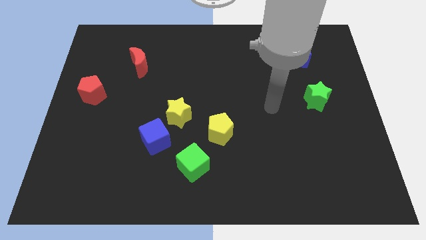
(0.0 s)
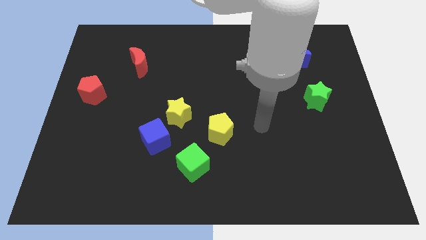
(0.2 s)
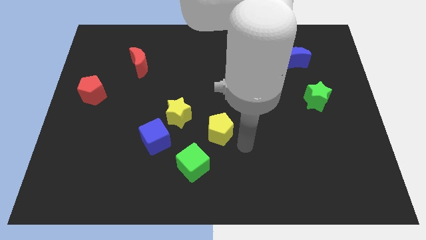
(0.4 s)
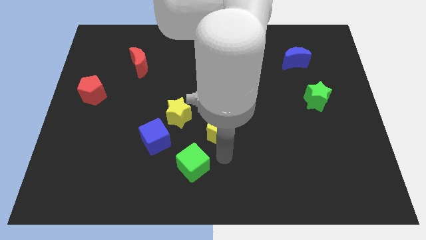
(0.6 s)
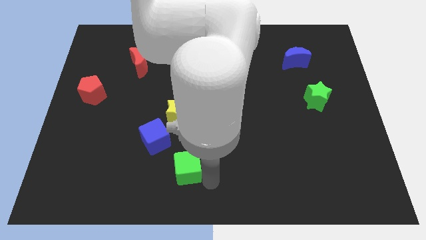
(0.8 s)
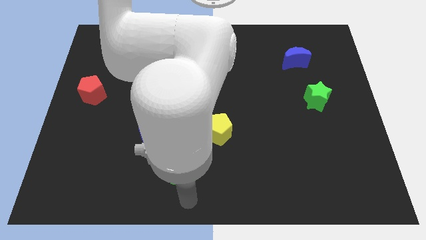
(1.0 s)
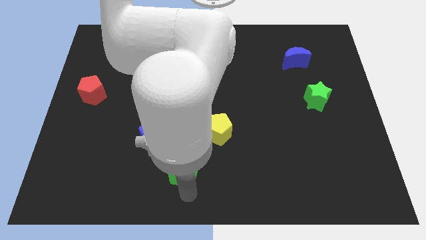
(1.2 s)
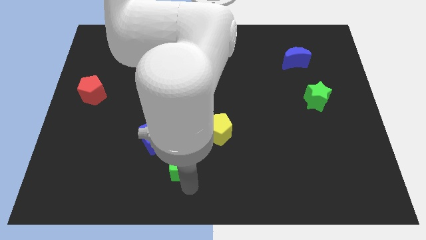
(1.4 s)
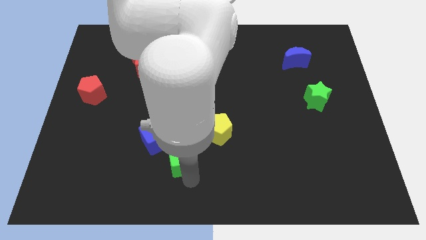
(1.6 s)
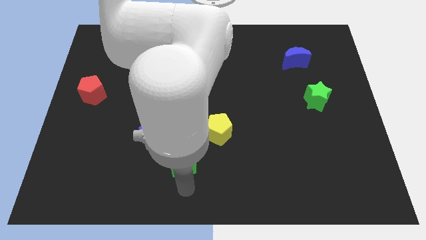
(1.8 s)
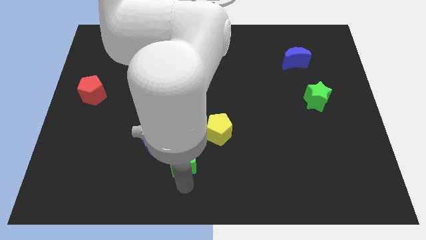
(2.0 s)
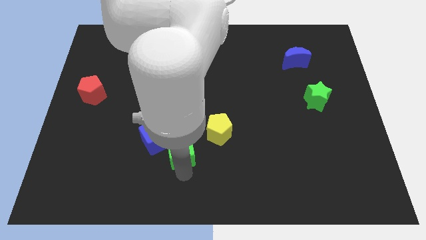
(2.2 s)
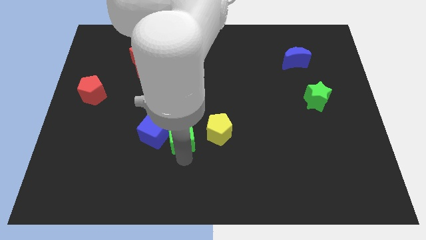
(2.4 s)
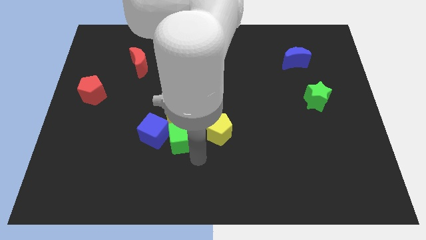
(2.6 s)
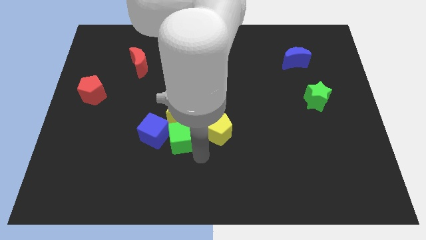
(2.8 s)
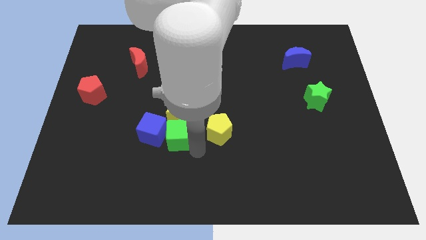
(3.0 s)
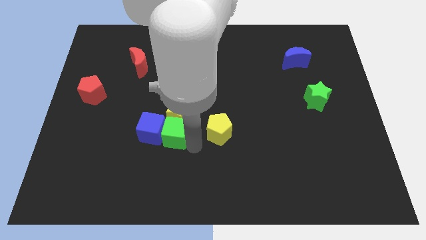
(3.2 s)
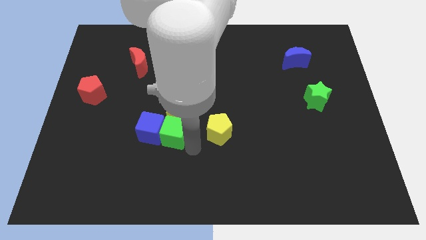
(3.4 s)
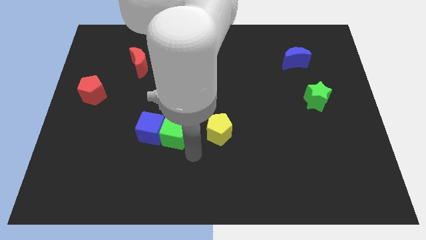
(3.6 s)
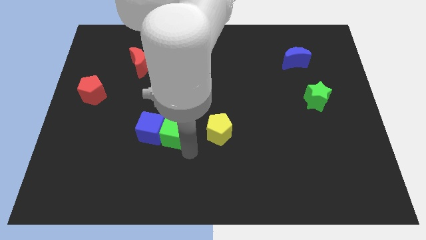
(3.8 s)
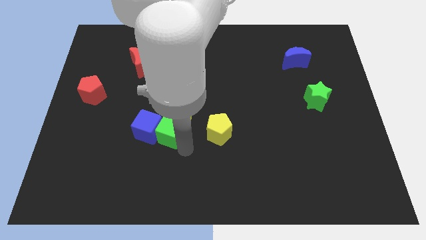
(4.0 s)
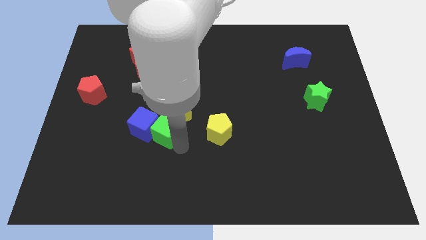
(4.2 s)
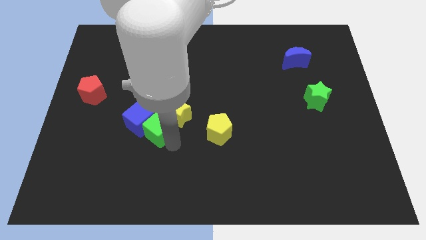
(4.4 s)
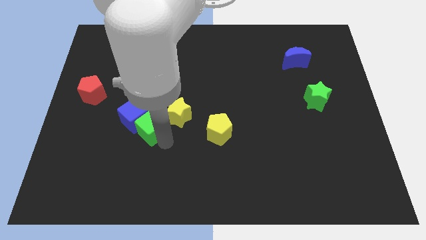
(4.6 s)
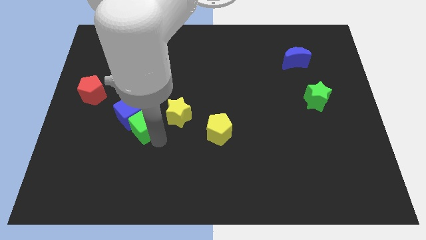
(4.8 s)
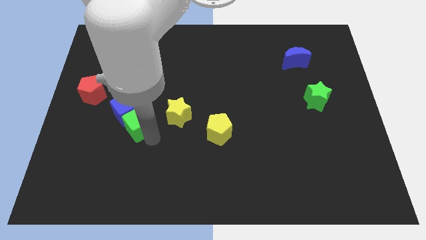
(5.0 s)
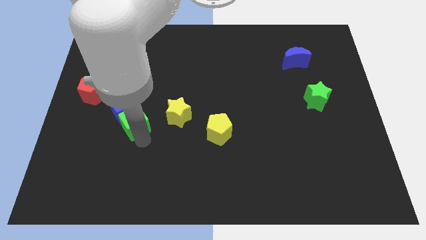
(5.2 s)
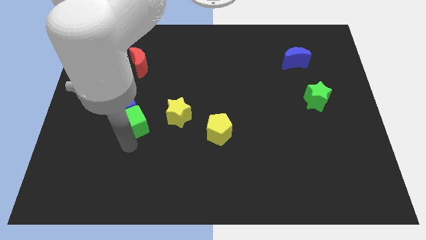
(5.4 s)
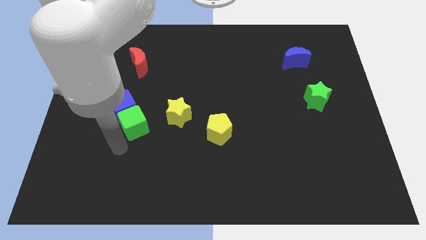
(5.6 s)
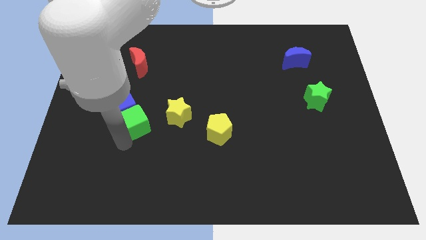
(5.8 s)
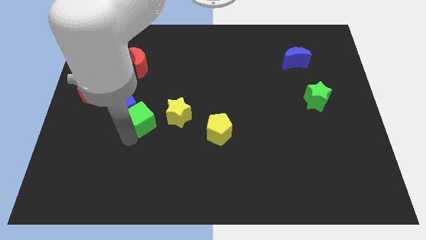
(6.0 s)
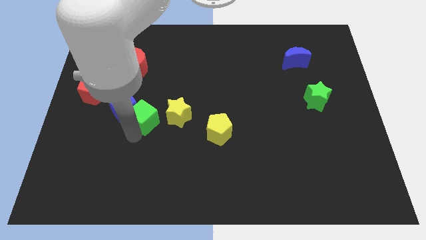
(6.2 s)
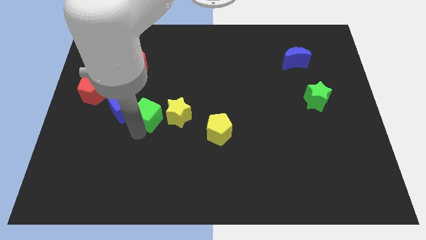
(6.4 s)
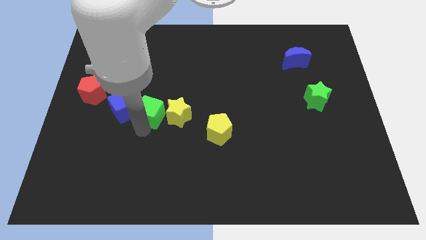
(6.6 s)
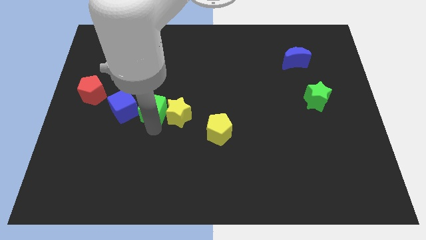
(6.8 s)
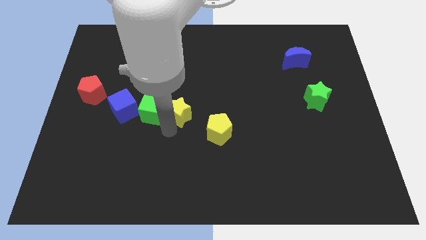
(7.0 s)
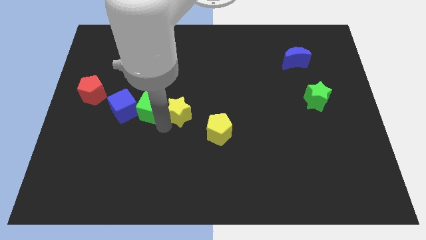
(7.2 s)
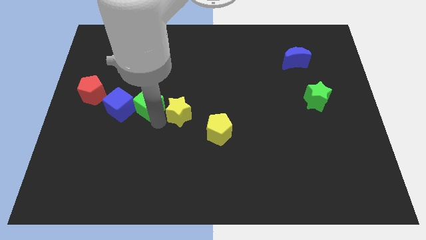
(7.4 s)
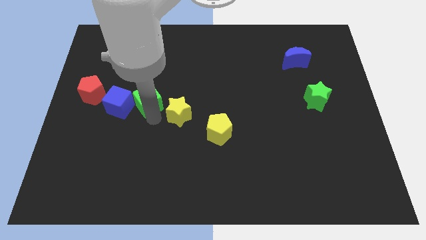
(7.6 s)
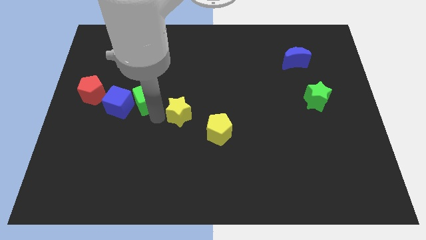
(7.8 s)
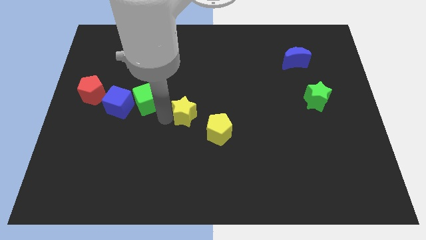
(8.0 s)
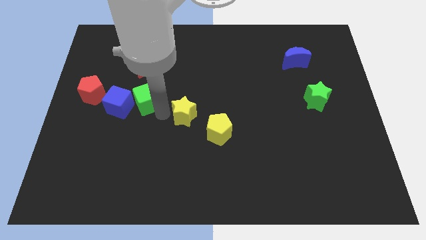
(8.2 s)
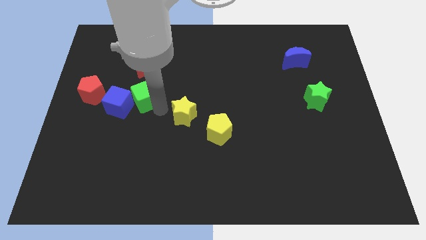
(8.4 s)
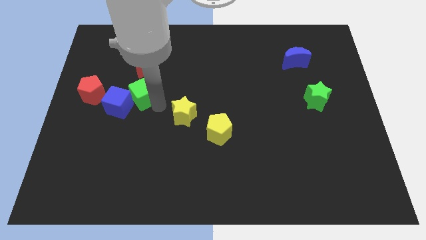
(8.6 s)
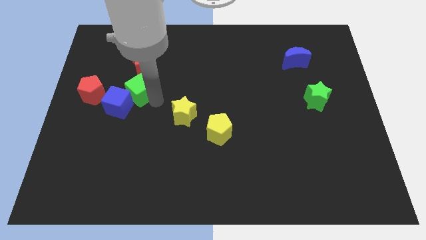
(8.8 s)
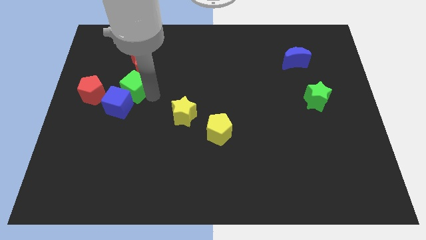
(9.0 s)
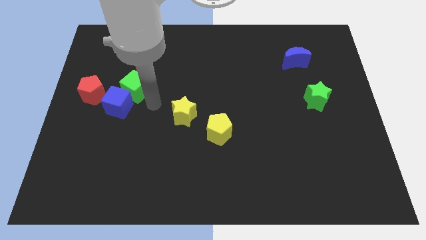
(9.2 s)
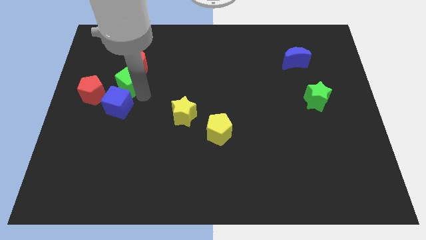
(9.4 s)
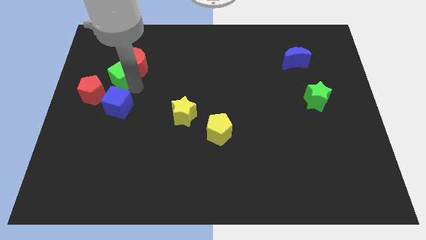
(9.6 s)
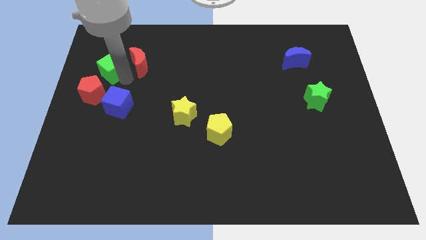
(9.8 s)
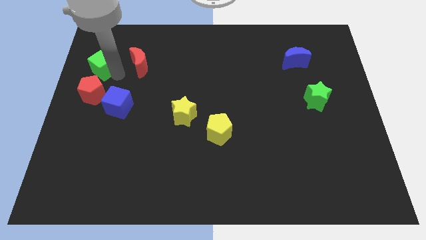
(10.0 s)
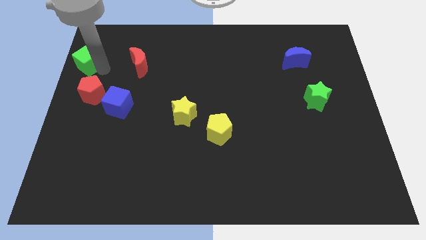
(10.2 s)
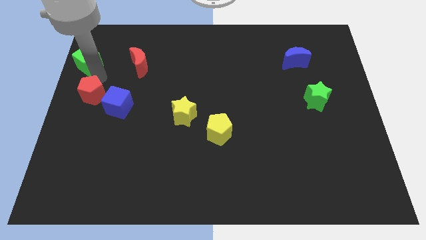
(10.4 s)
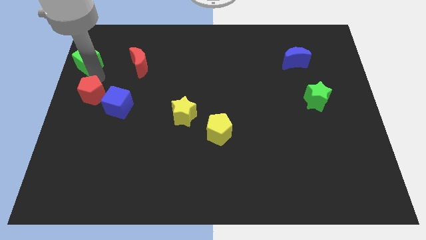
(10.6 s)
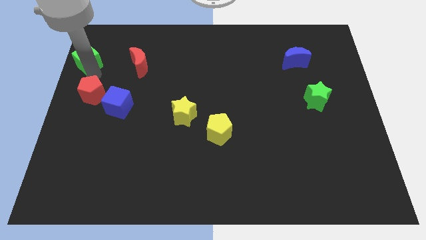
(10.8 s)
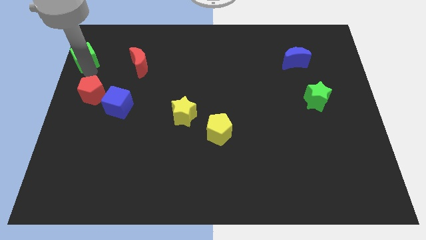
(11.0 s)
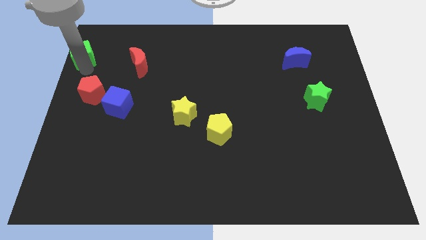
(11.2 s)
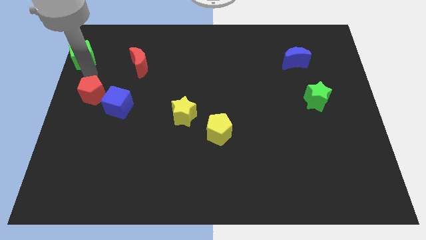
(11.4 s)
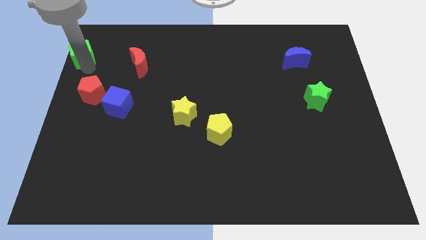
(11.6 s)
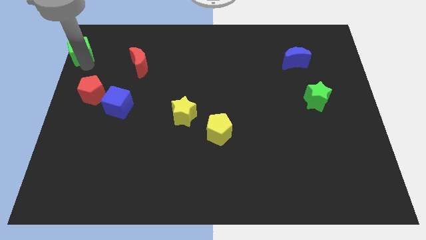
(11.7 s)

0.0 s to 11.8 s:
push the green cube to the top left
